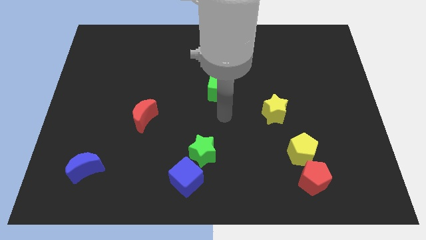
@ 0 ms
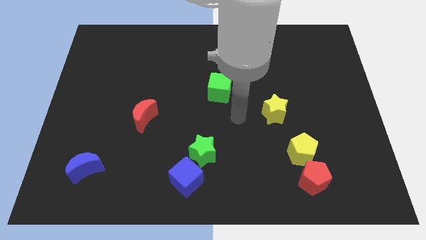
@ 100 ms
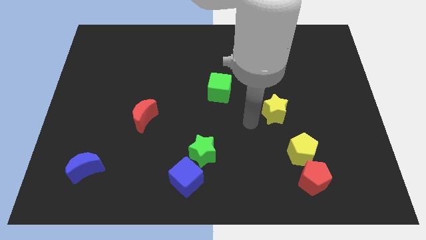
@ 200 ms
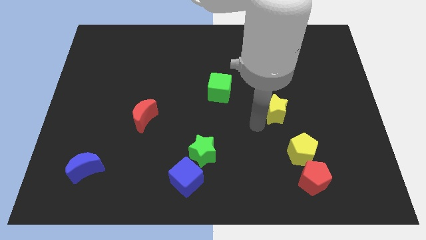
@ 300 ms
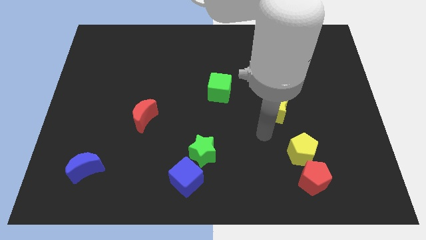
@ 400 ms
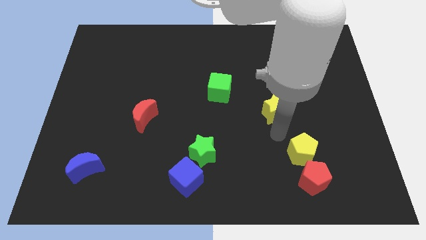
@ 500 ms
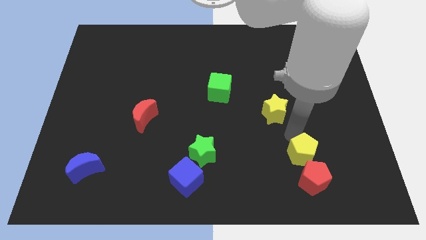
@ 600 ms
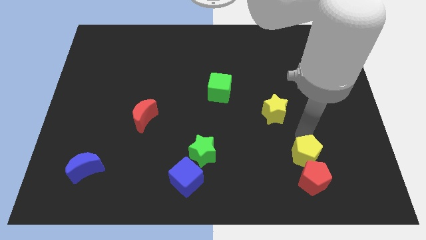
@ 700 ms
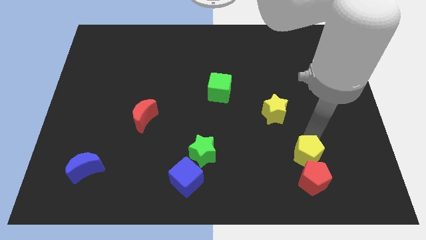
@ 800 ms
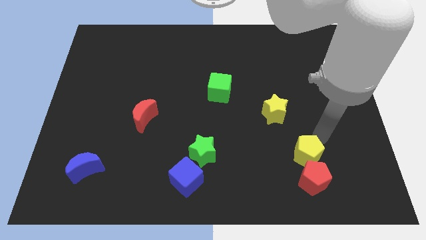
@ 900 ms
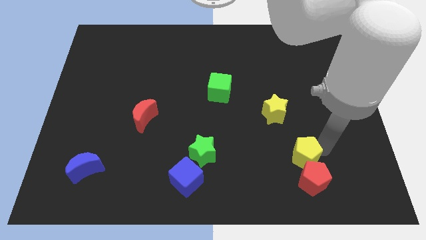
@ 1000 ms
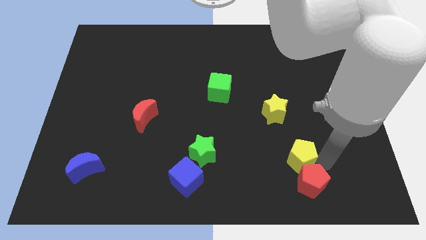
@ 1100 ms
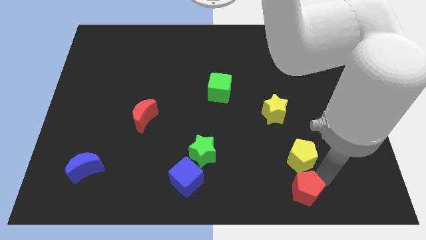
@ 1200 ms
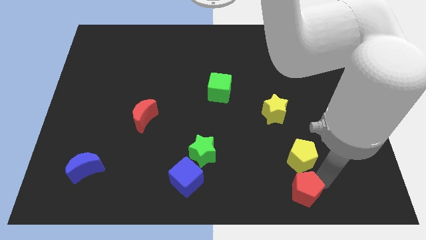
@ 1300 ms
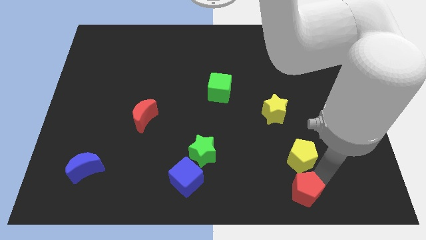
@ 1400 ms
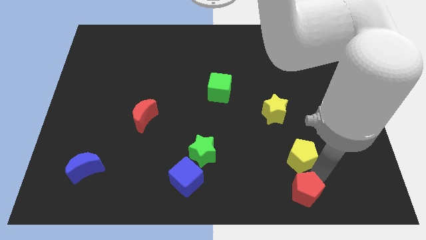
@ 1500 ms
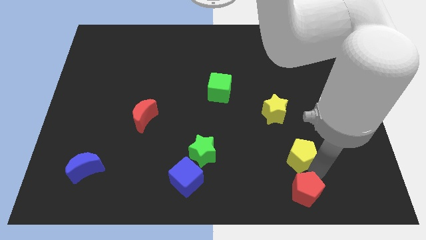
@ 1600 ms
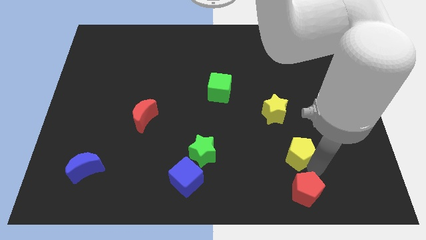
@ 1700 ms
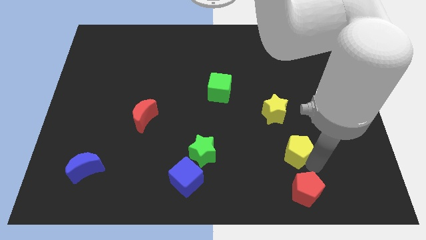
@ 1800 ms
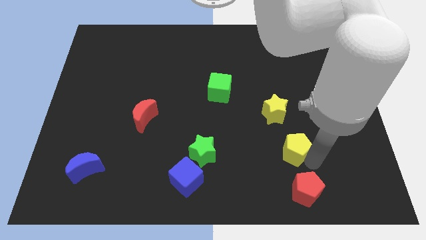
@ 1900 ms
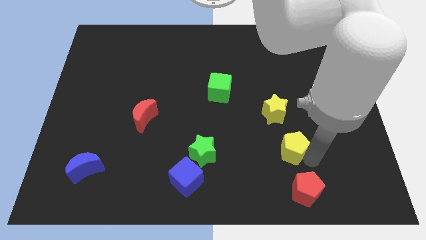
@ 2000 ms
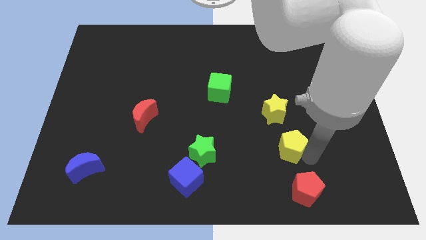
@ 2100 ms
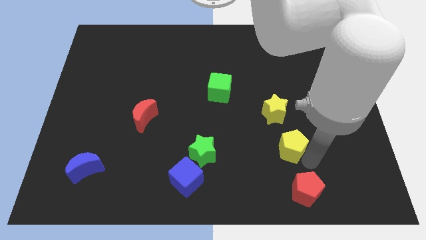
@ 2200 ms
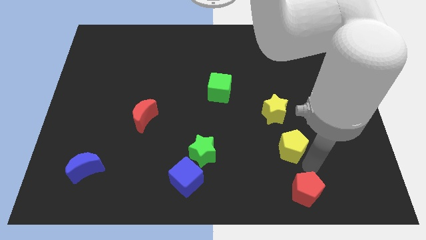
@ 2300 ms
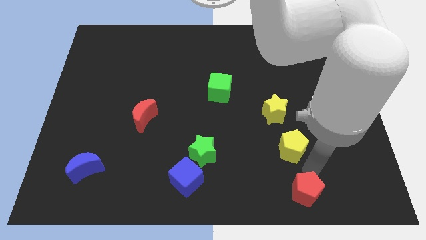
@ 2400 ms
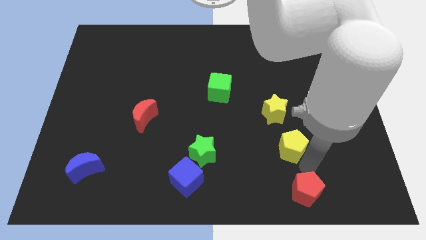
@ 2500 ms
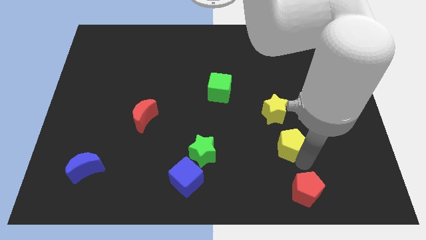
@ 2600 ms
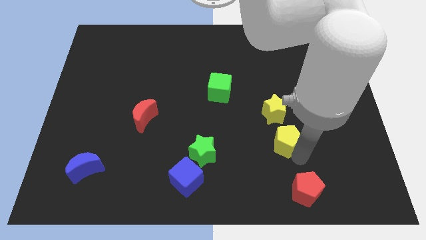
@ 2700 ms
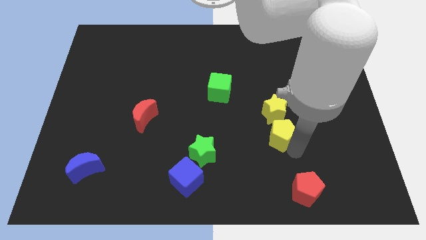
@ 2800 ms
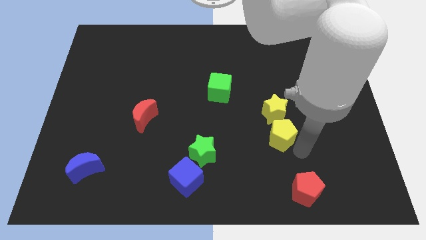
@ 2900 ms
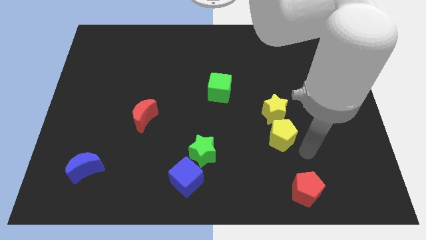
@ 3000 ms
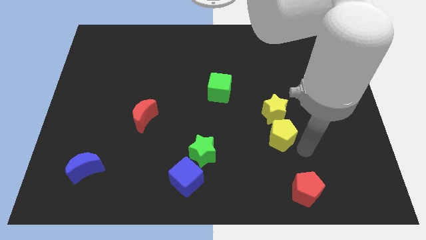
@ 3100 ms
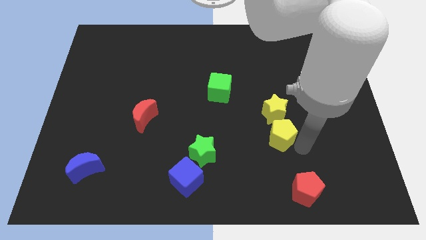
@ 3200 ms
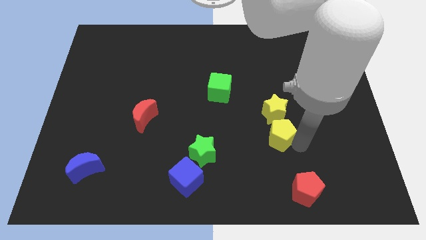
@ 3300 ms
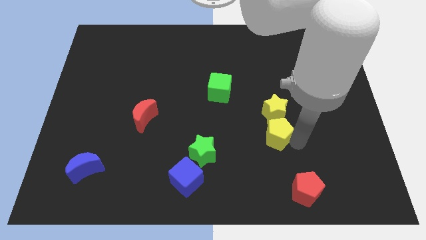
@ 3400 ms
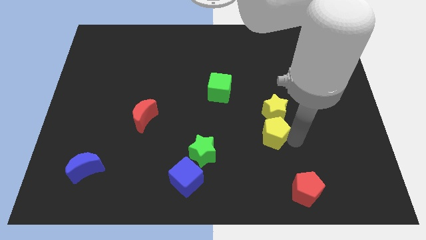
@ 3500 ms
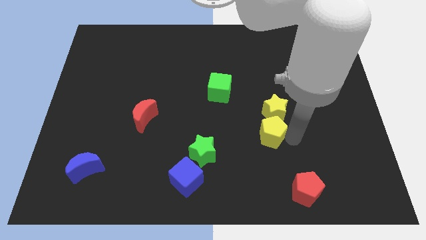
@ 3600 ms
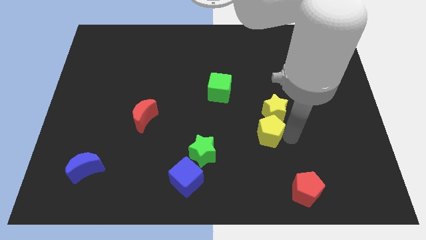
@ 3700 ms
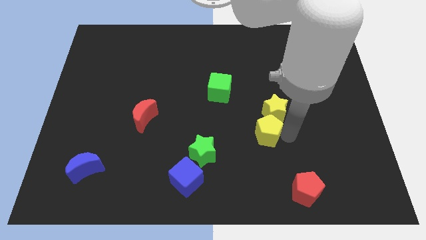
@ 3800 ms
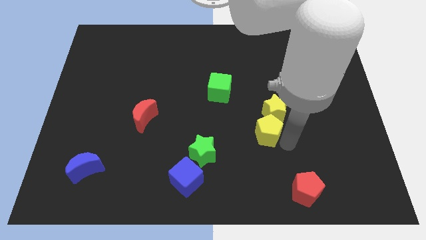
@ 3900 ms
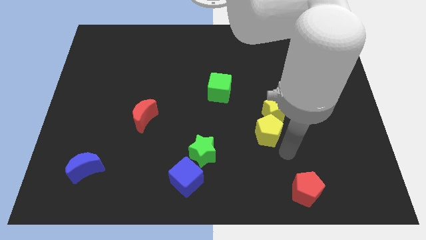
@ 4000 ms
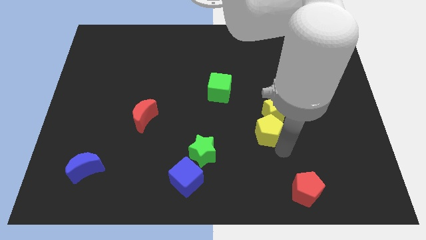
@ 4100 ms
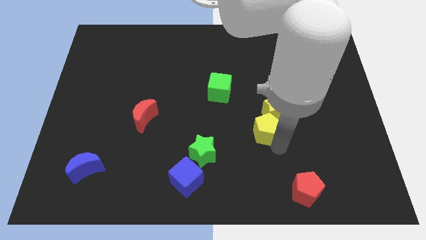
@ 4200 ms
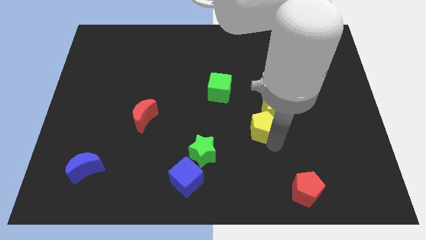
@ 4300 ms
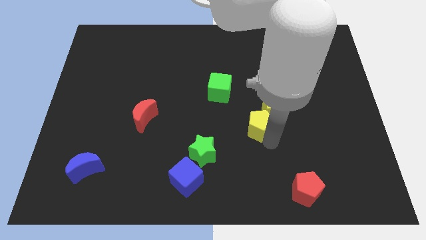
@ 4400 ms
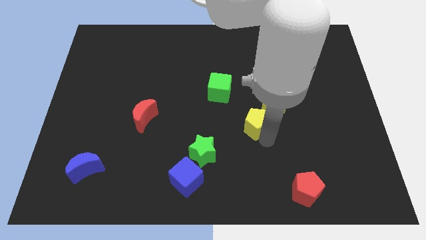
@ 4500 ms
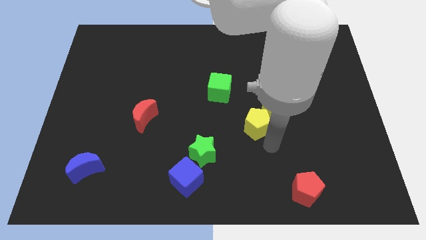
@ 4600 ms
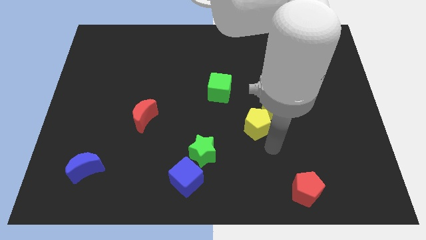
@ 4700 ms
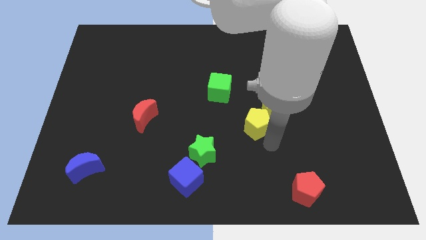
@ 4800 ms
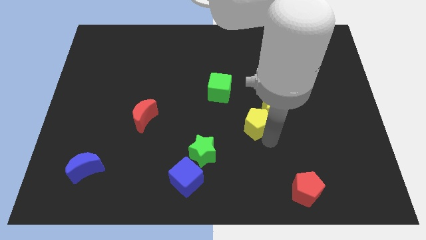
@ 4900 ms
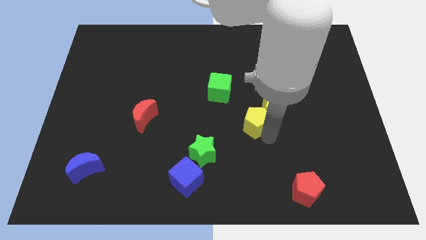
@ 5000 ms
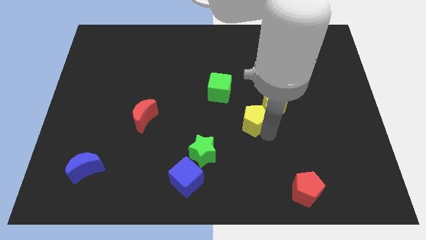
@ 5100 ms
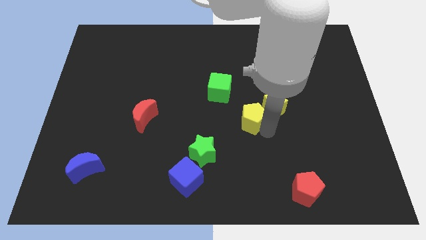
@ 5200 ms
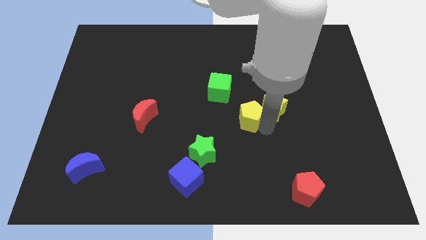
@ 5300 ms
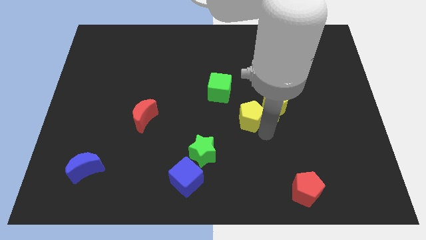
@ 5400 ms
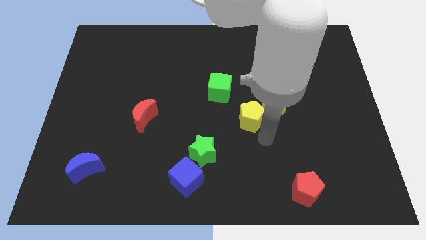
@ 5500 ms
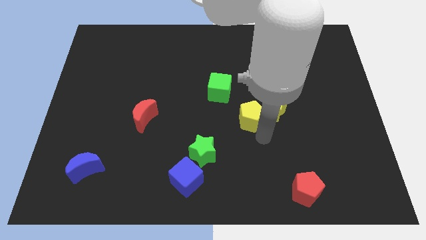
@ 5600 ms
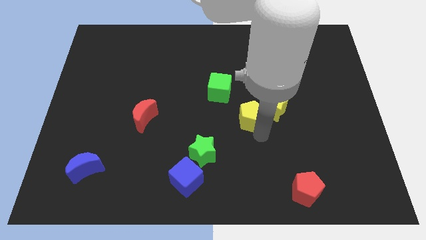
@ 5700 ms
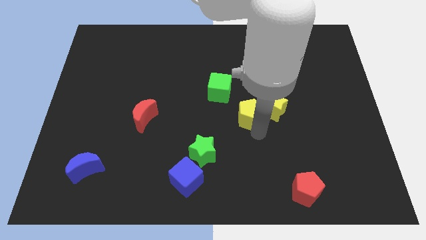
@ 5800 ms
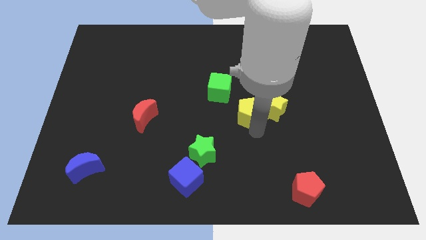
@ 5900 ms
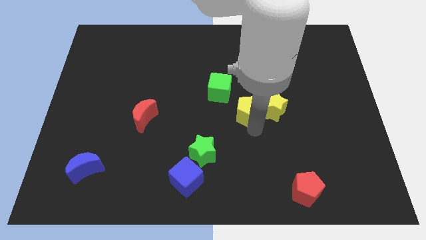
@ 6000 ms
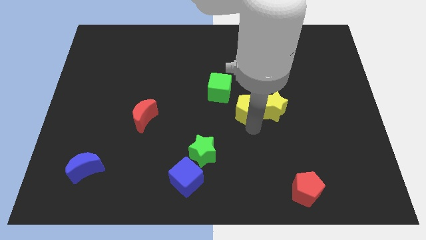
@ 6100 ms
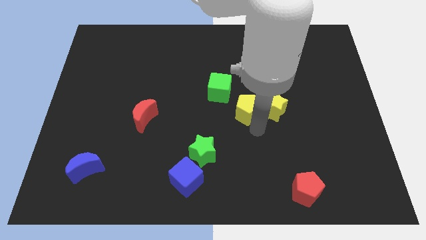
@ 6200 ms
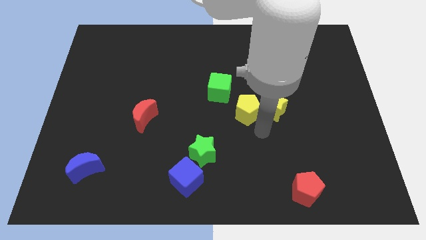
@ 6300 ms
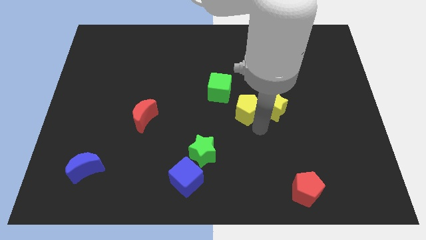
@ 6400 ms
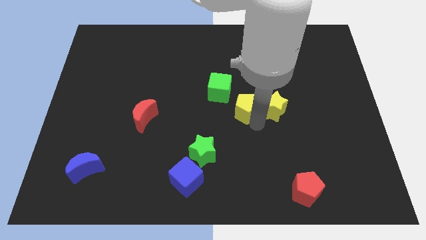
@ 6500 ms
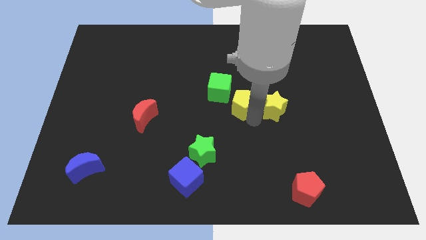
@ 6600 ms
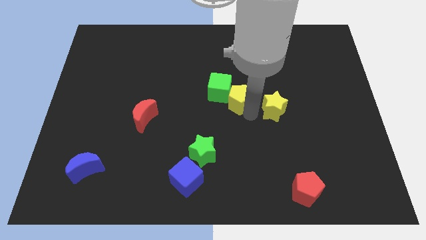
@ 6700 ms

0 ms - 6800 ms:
move the yellow pentagon to the green cube

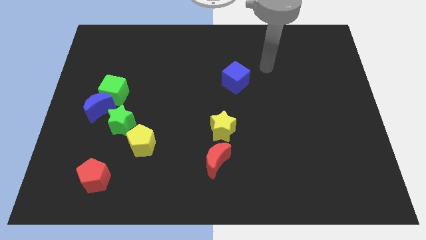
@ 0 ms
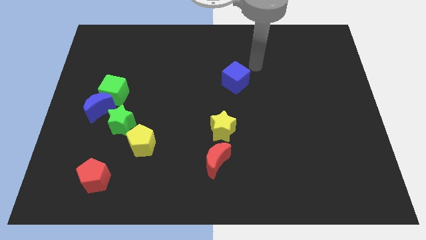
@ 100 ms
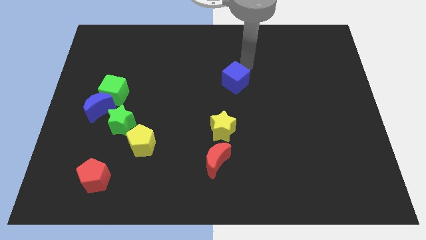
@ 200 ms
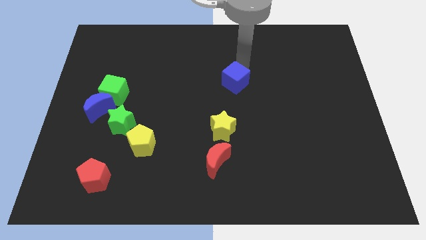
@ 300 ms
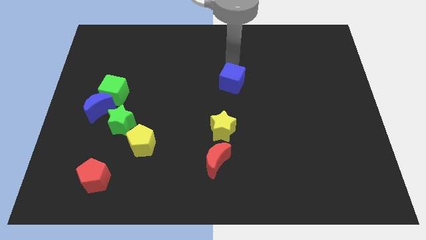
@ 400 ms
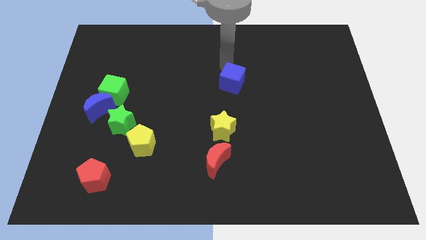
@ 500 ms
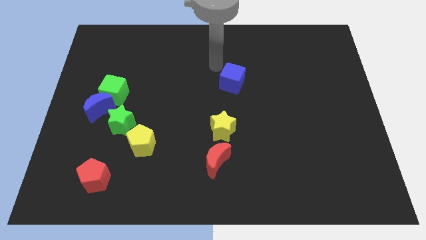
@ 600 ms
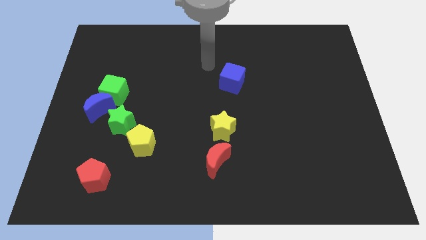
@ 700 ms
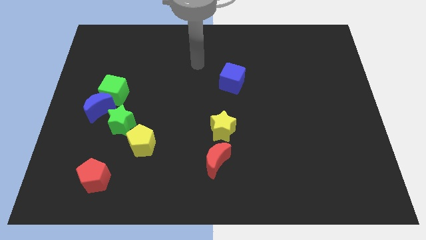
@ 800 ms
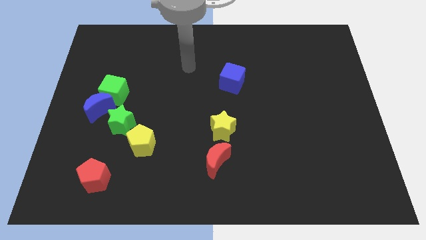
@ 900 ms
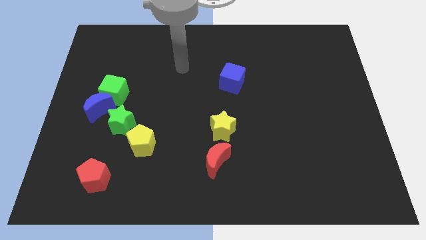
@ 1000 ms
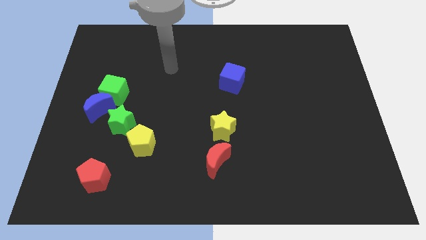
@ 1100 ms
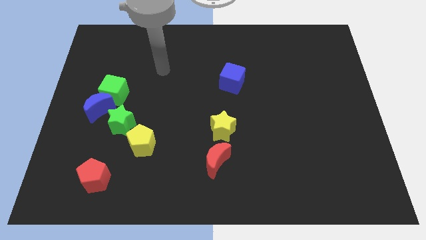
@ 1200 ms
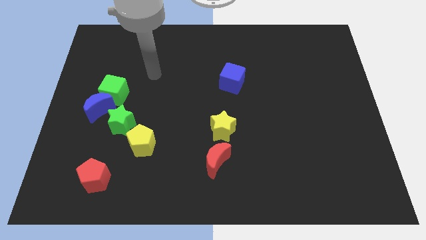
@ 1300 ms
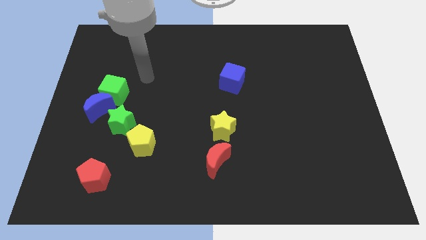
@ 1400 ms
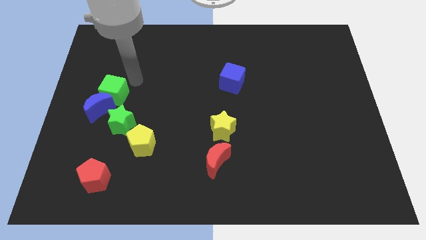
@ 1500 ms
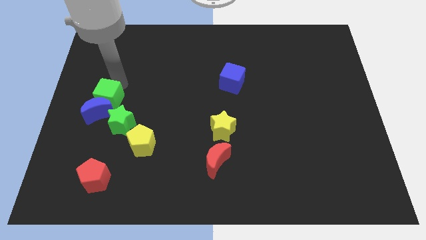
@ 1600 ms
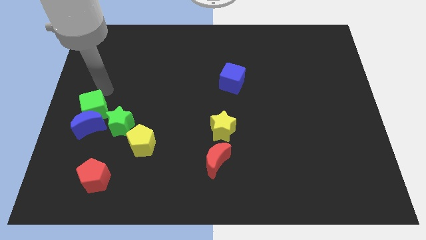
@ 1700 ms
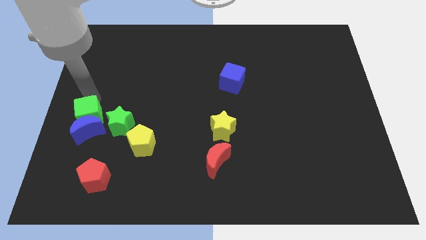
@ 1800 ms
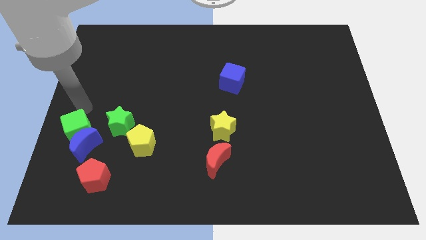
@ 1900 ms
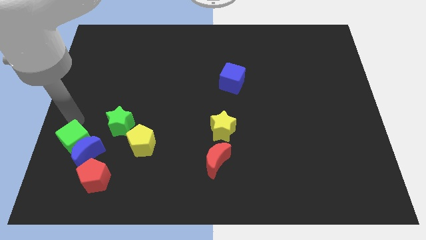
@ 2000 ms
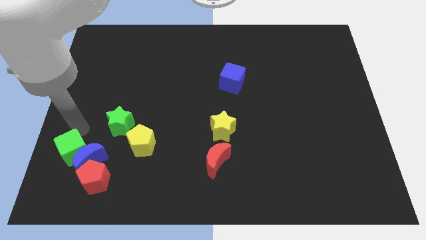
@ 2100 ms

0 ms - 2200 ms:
move the blue moon close to the red pentagon
